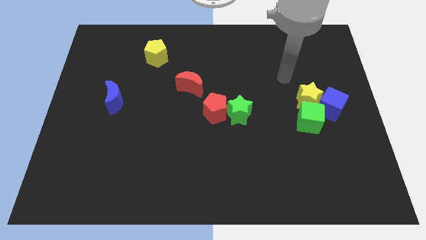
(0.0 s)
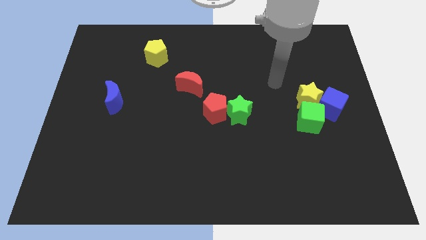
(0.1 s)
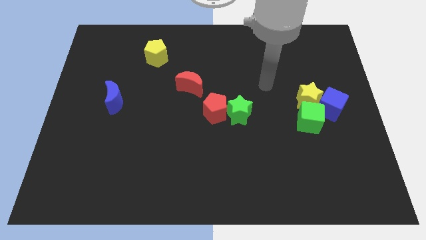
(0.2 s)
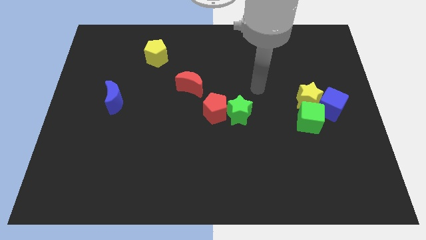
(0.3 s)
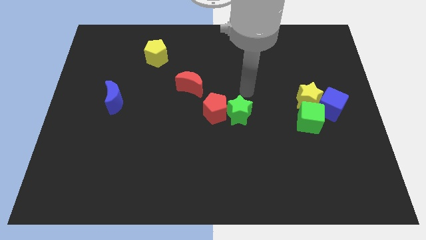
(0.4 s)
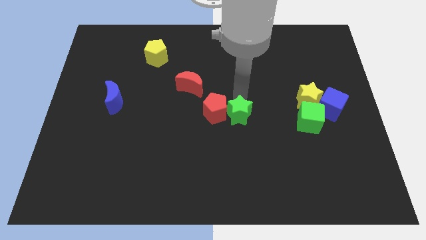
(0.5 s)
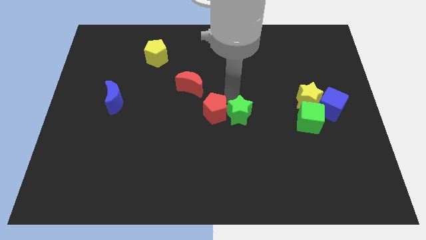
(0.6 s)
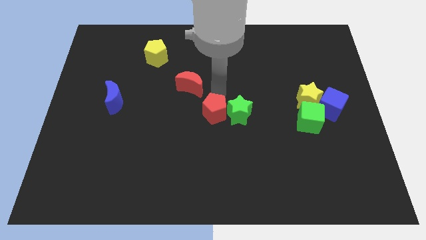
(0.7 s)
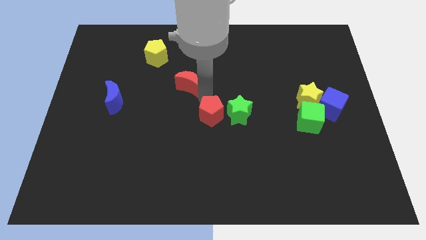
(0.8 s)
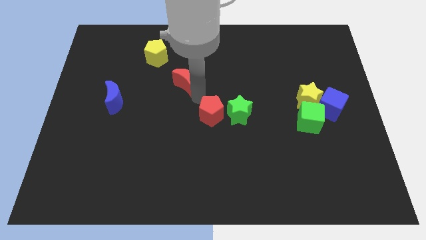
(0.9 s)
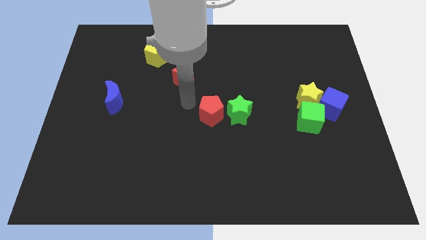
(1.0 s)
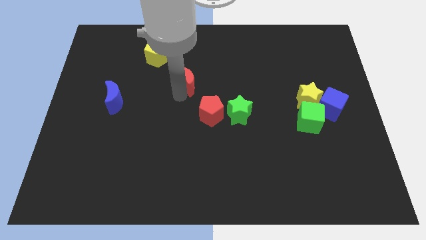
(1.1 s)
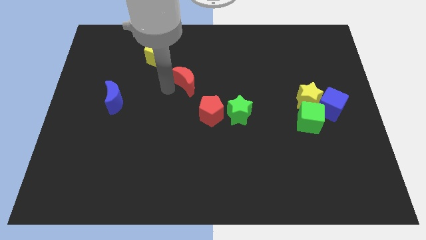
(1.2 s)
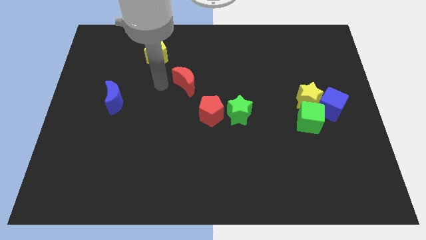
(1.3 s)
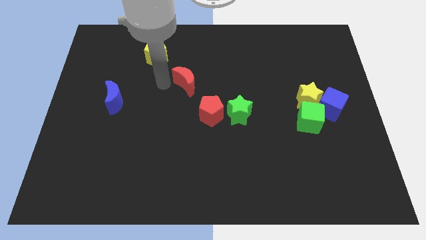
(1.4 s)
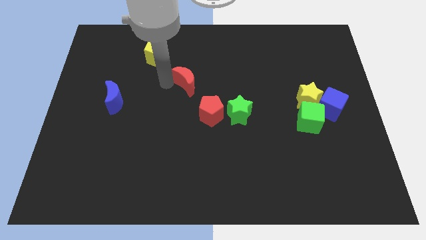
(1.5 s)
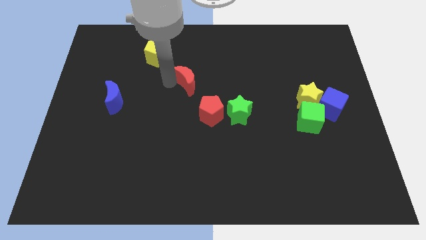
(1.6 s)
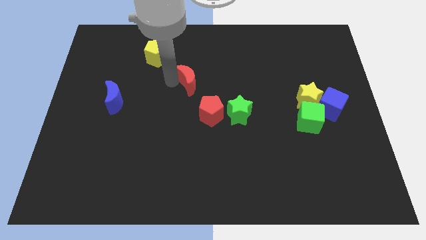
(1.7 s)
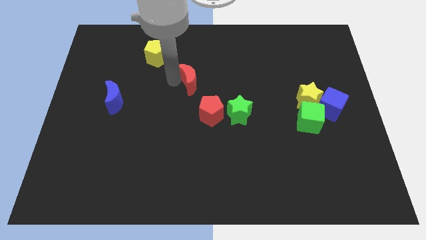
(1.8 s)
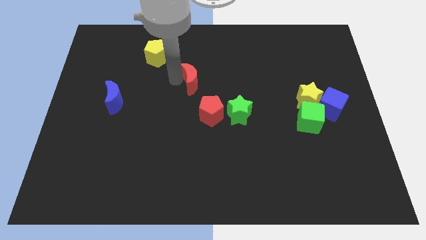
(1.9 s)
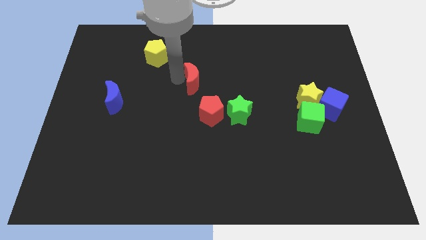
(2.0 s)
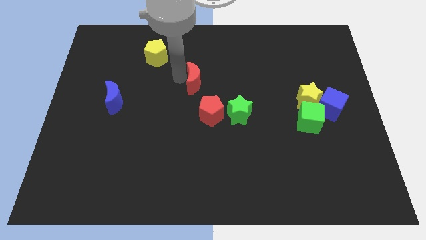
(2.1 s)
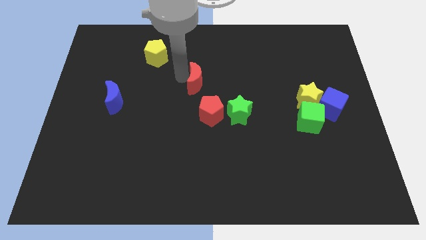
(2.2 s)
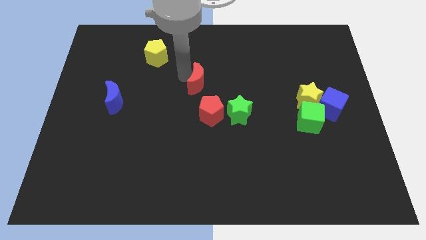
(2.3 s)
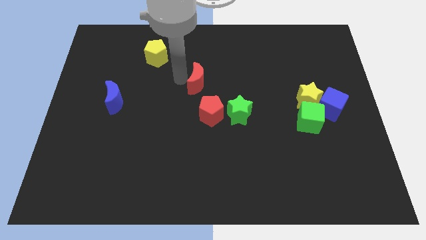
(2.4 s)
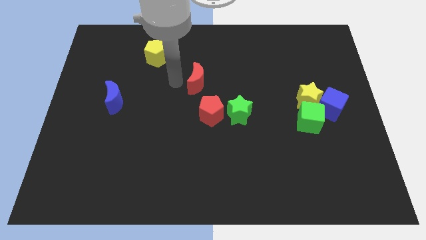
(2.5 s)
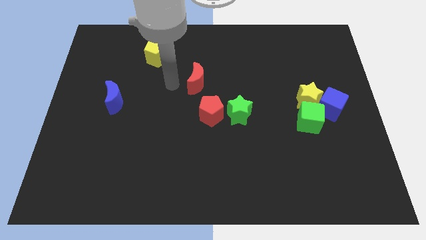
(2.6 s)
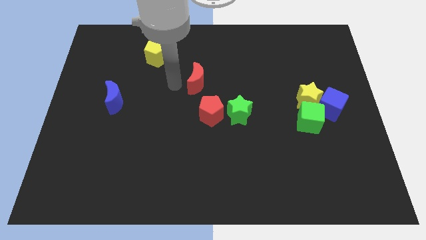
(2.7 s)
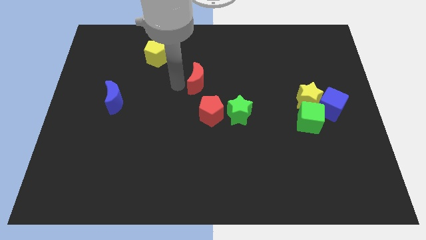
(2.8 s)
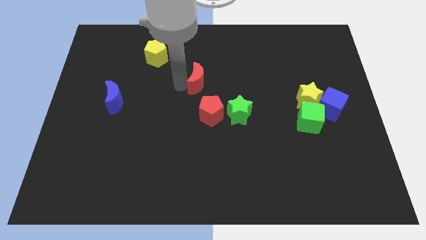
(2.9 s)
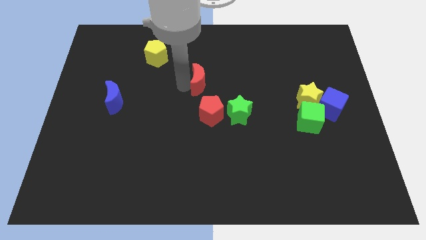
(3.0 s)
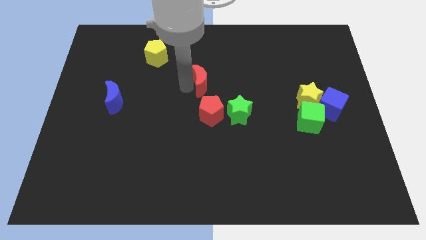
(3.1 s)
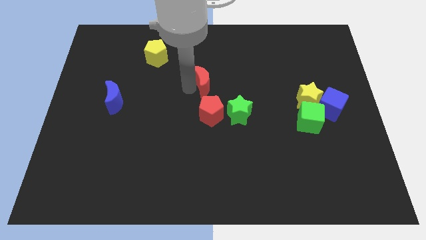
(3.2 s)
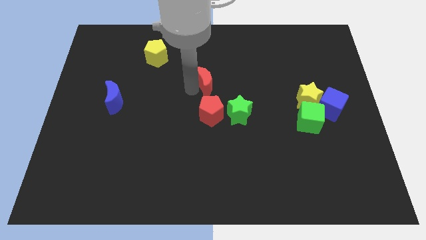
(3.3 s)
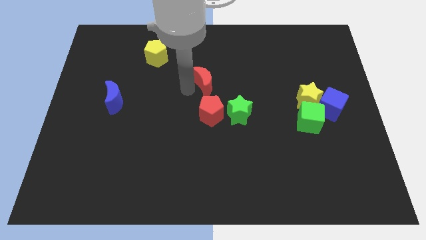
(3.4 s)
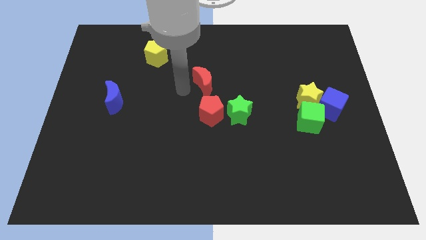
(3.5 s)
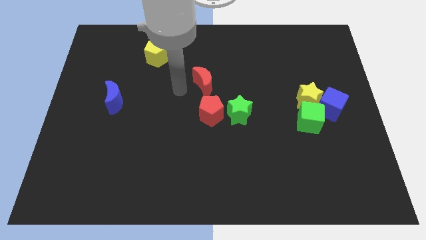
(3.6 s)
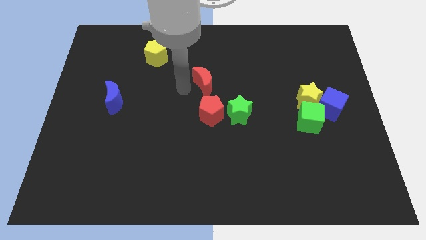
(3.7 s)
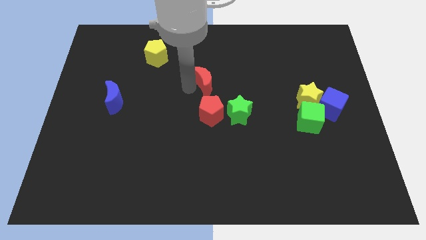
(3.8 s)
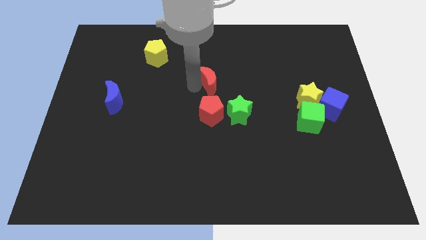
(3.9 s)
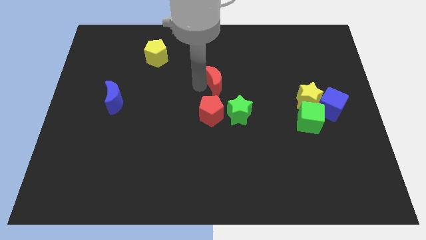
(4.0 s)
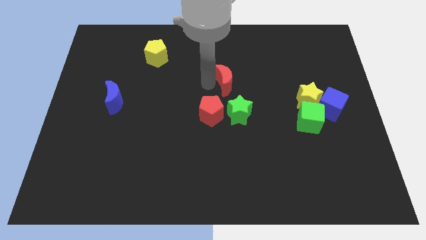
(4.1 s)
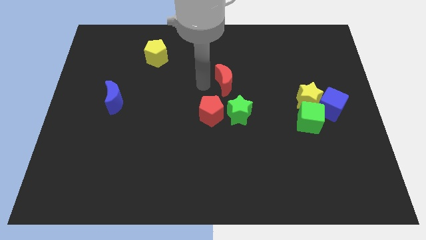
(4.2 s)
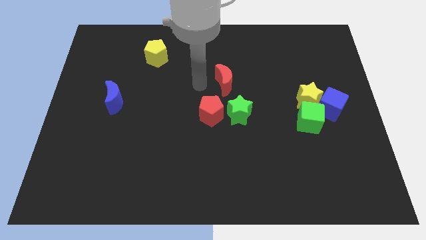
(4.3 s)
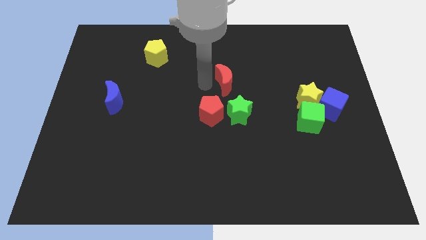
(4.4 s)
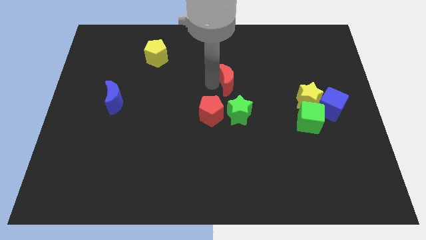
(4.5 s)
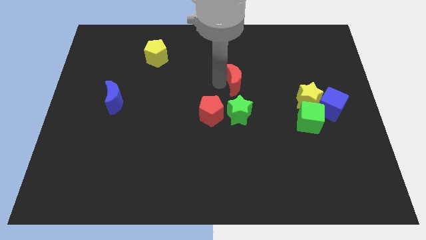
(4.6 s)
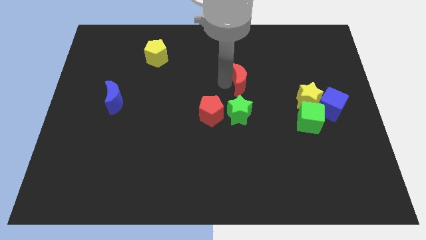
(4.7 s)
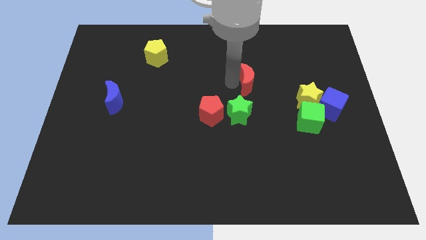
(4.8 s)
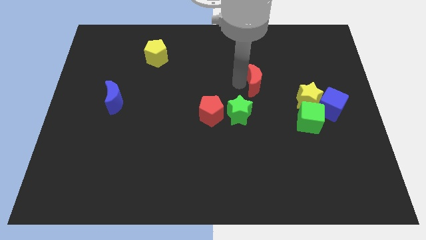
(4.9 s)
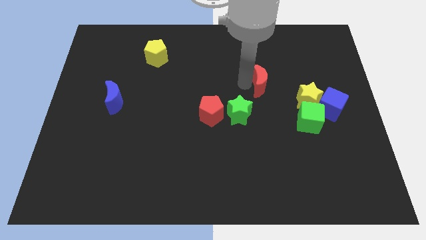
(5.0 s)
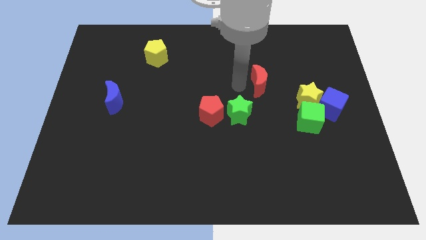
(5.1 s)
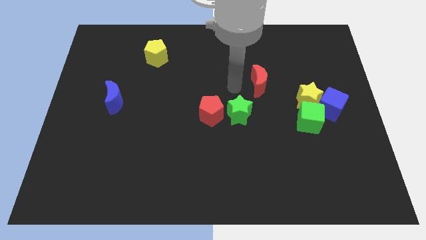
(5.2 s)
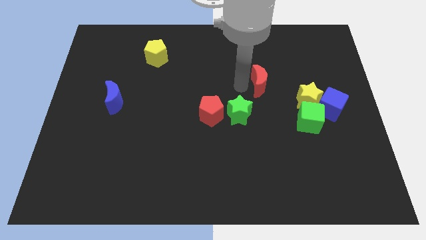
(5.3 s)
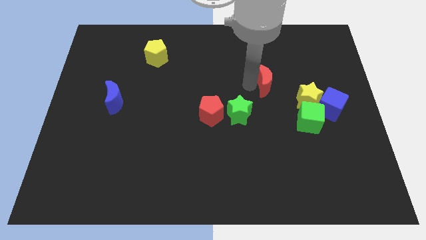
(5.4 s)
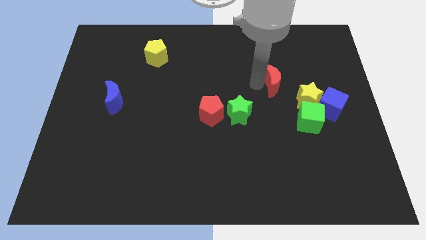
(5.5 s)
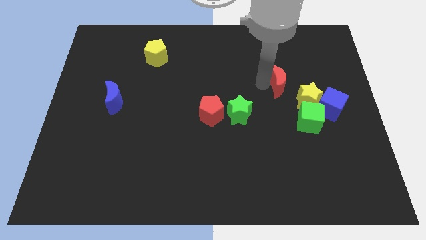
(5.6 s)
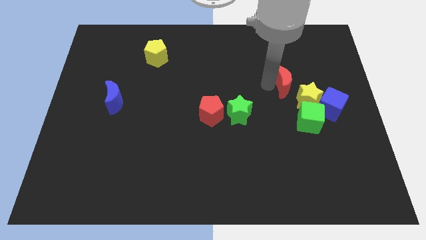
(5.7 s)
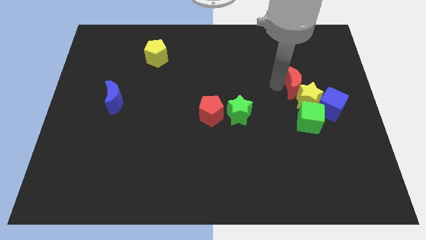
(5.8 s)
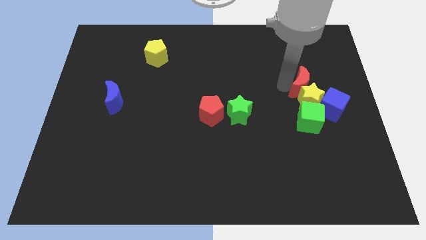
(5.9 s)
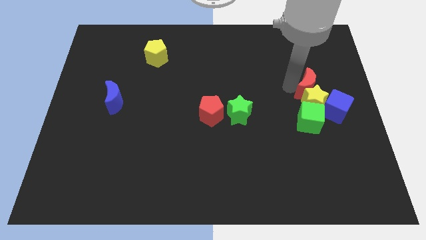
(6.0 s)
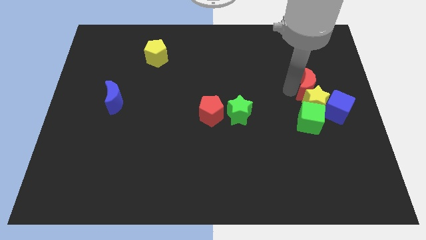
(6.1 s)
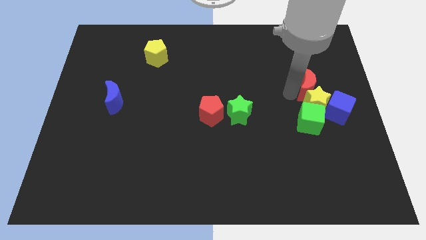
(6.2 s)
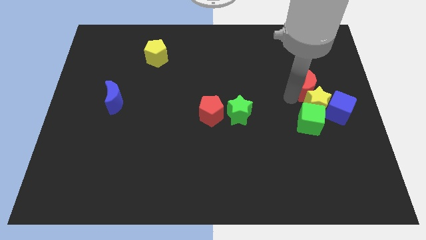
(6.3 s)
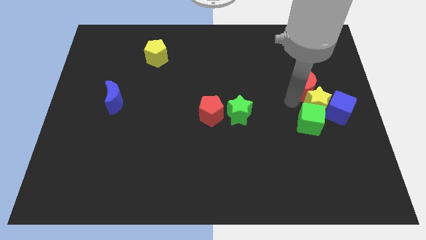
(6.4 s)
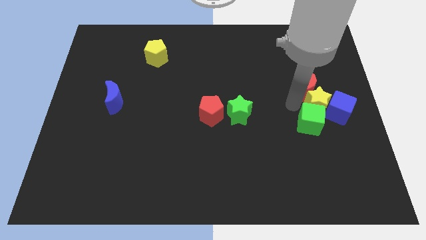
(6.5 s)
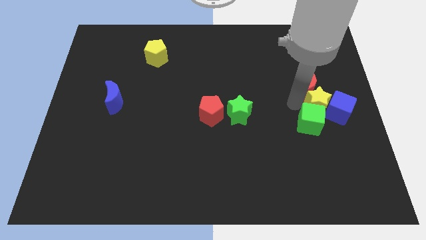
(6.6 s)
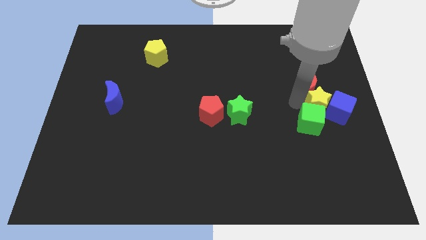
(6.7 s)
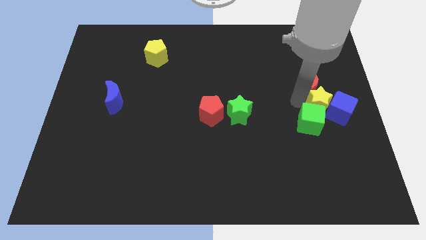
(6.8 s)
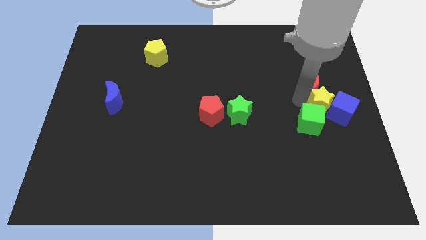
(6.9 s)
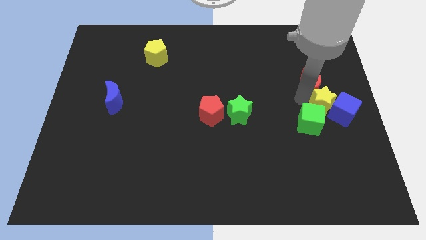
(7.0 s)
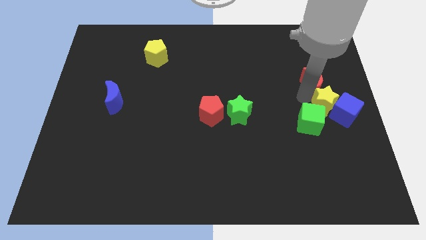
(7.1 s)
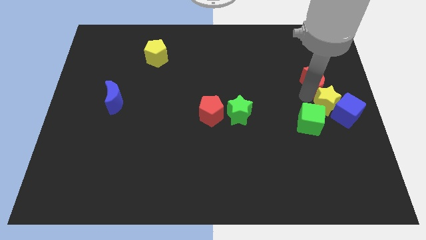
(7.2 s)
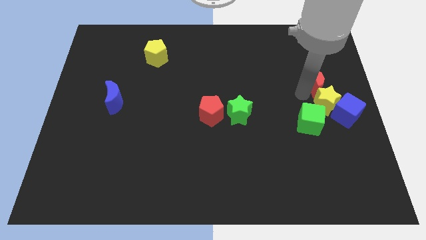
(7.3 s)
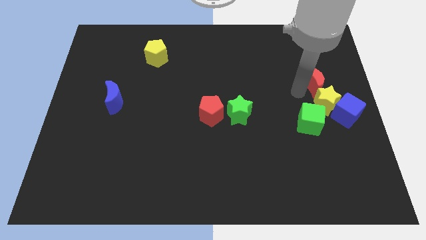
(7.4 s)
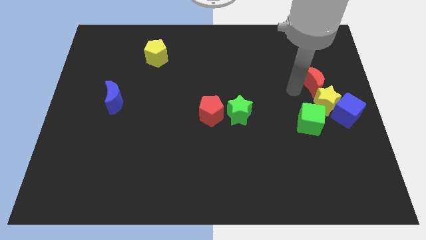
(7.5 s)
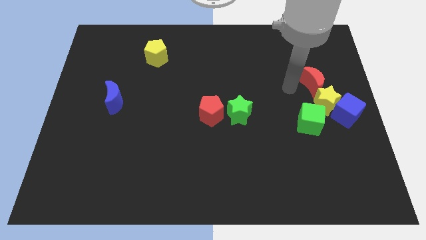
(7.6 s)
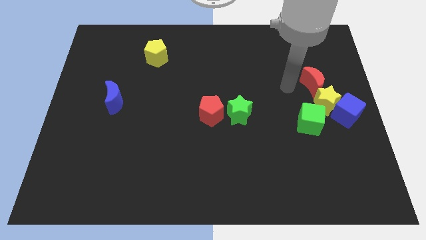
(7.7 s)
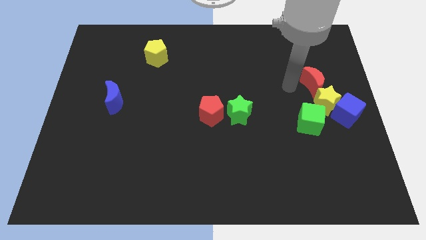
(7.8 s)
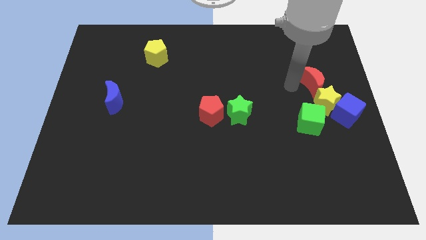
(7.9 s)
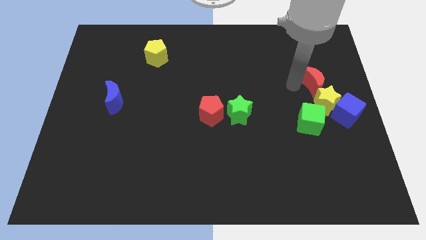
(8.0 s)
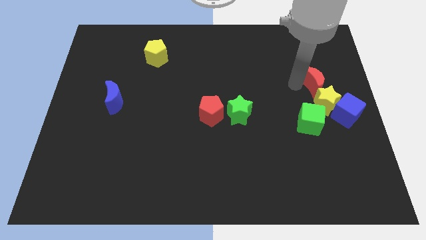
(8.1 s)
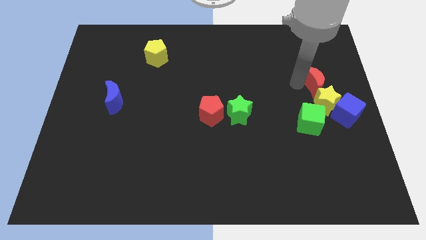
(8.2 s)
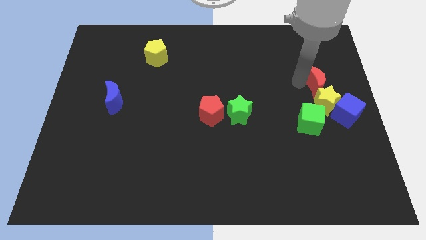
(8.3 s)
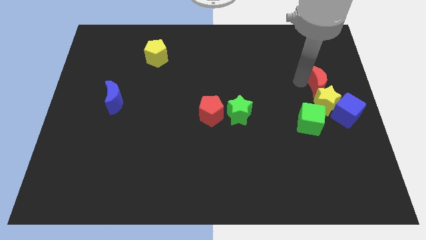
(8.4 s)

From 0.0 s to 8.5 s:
put the red moon to the center right
